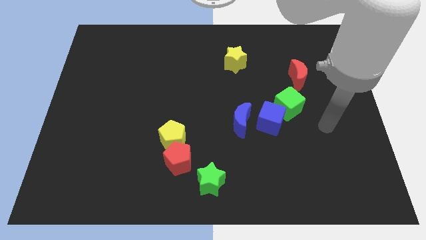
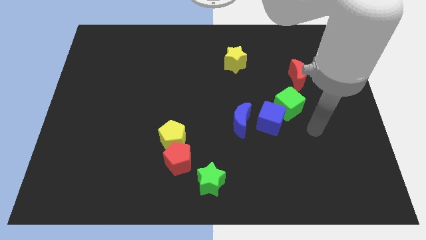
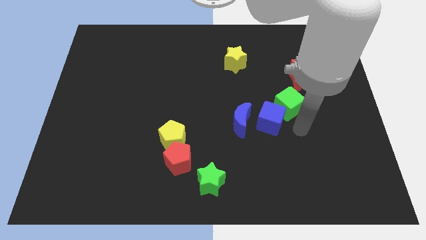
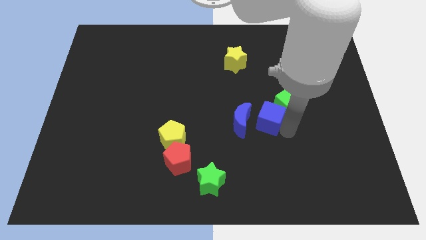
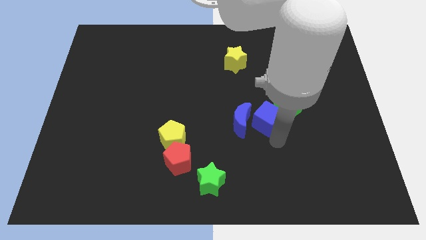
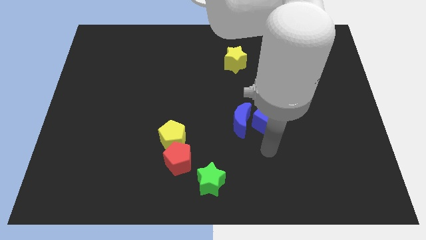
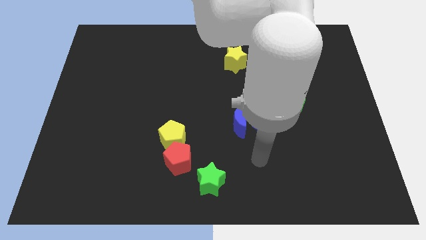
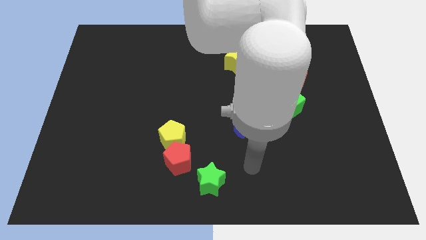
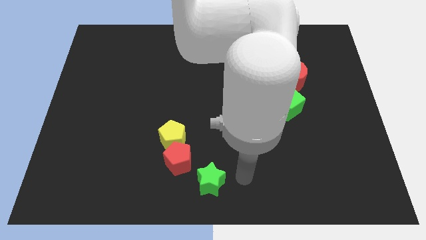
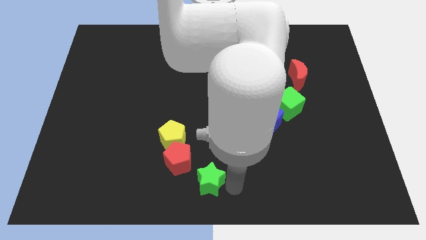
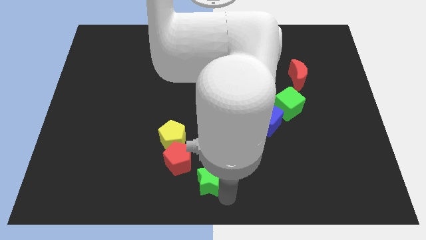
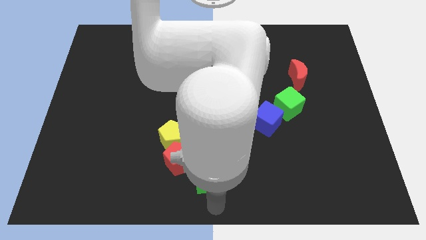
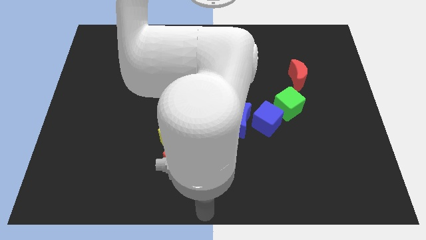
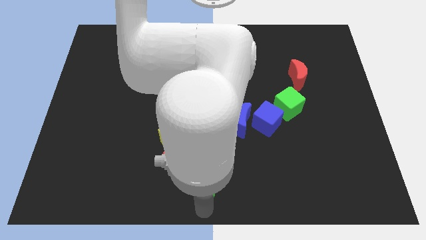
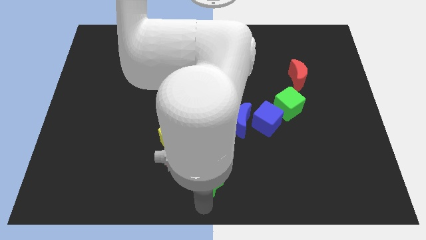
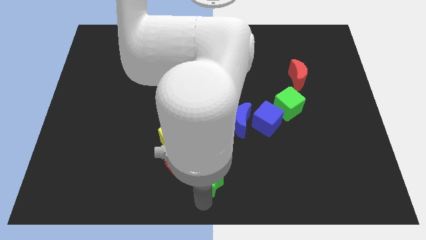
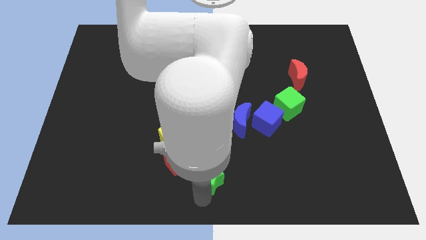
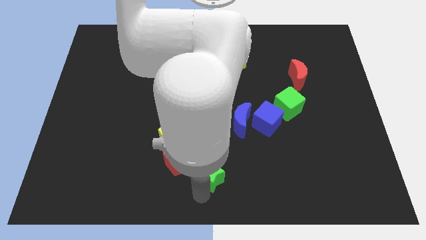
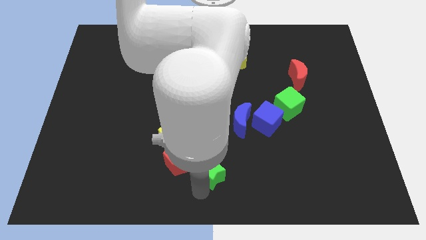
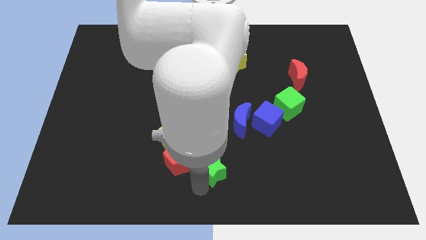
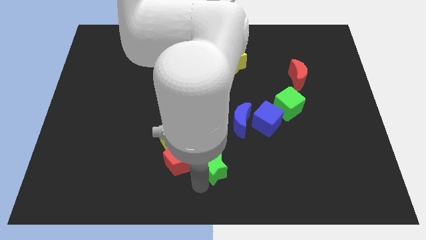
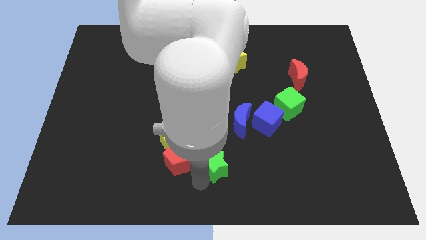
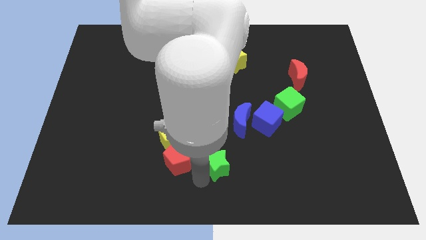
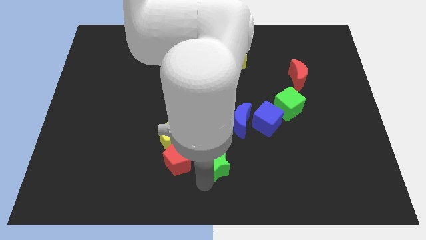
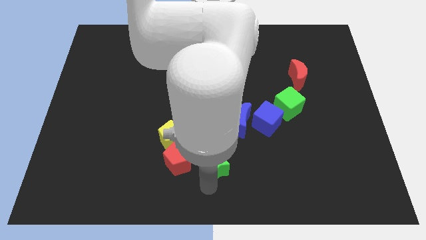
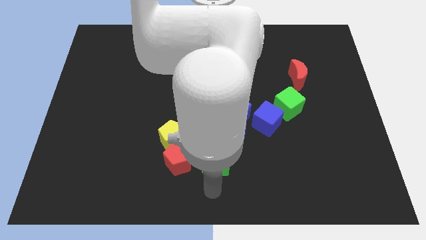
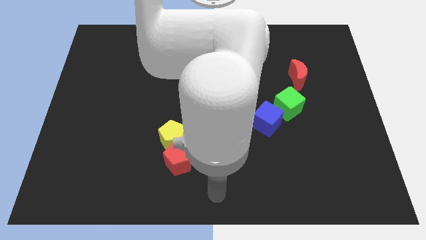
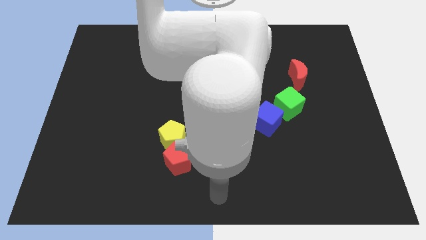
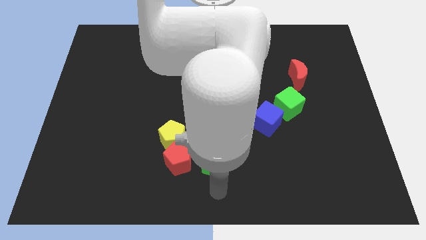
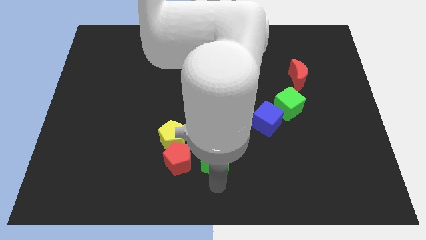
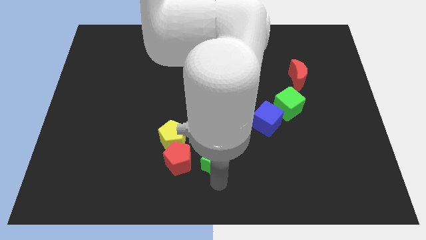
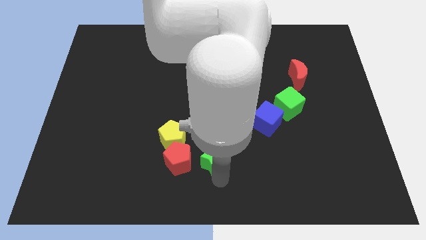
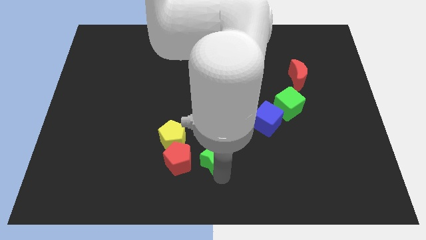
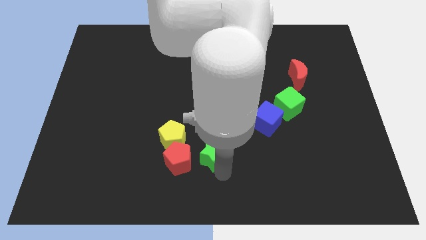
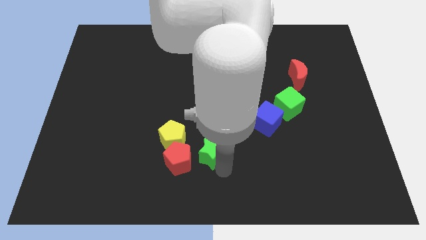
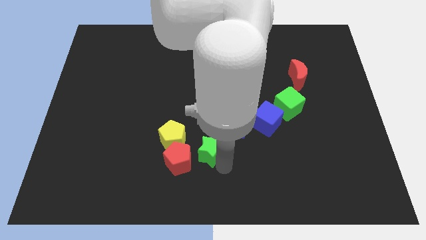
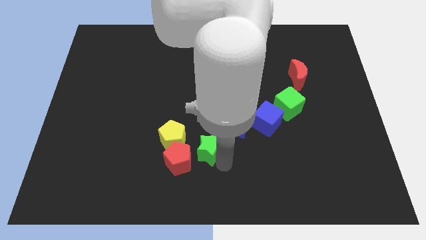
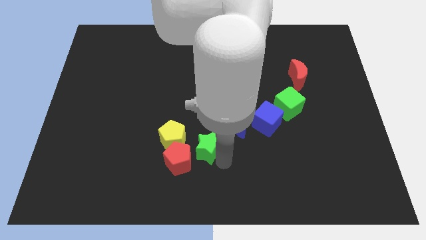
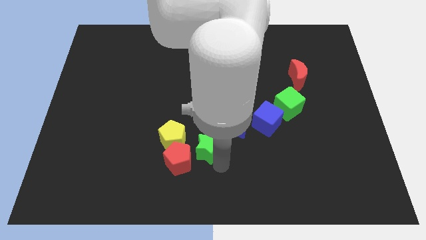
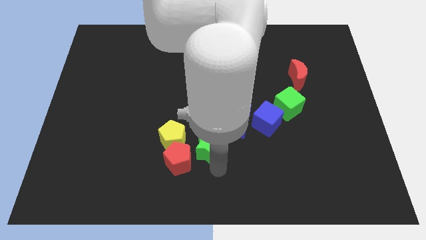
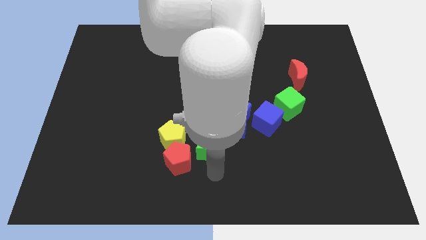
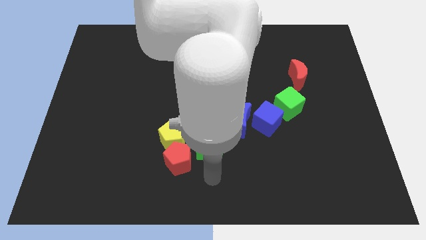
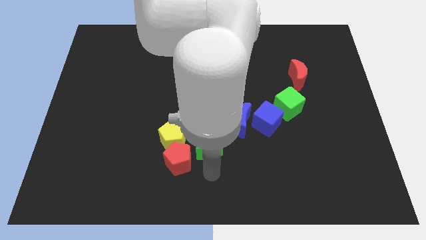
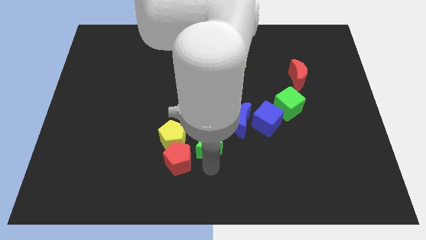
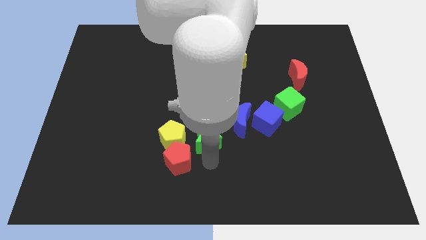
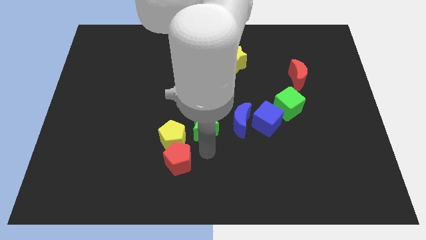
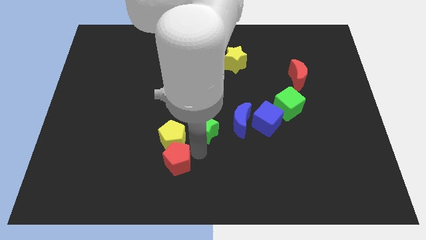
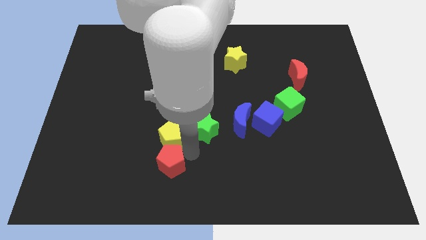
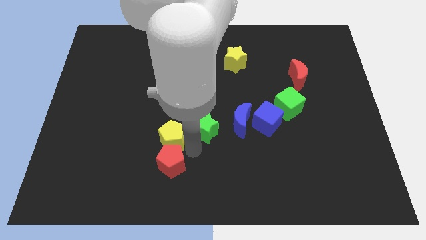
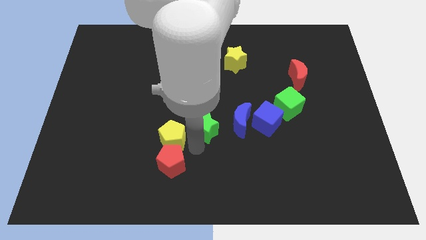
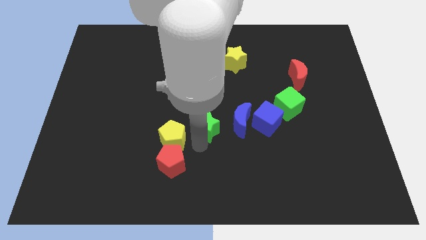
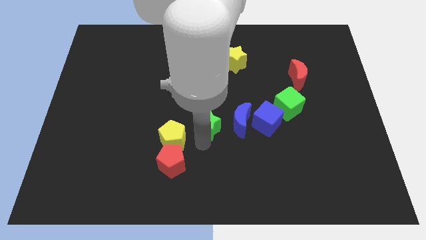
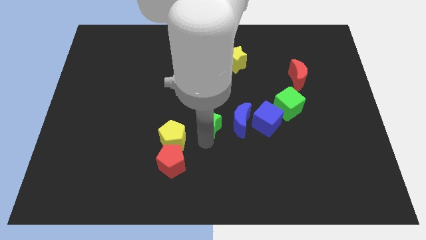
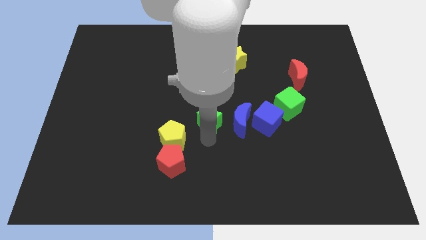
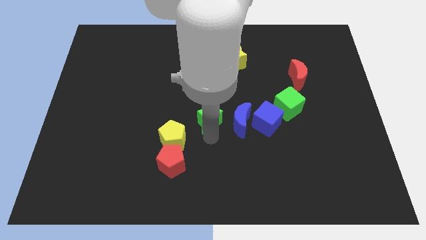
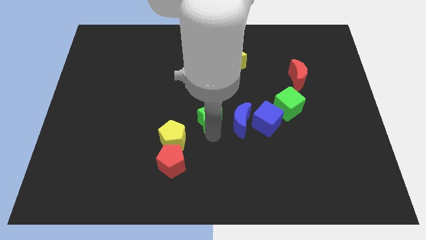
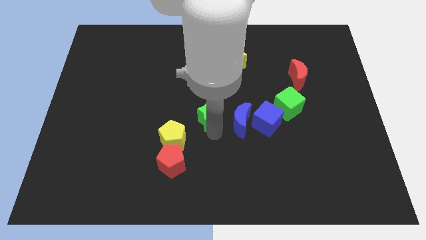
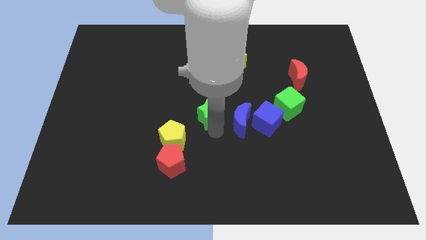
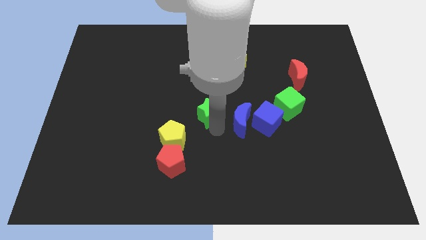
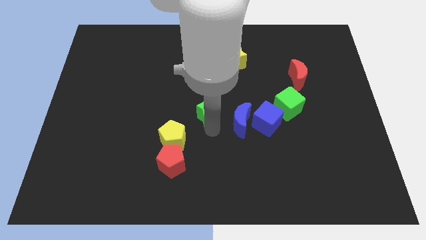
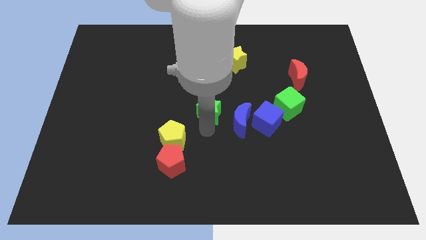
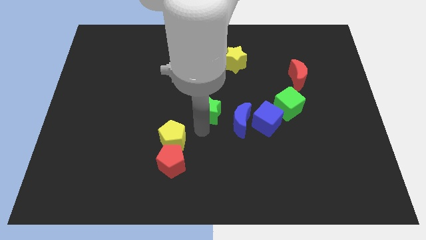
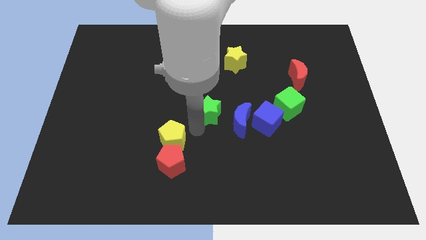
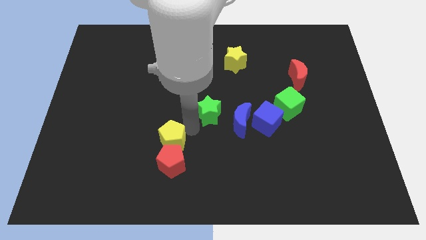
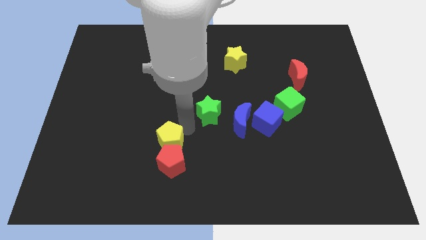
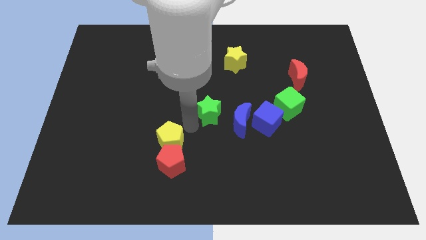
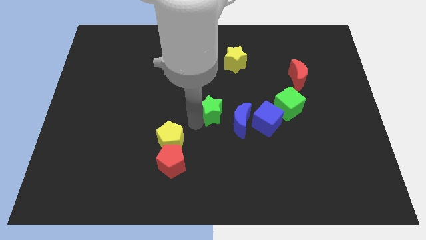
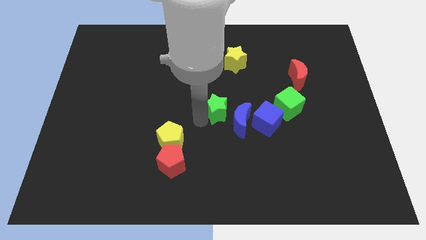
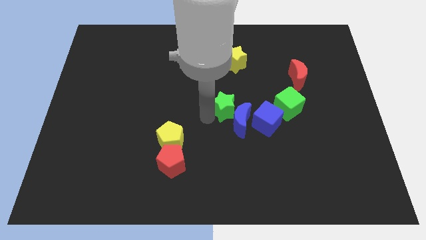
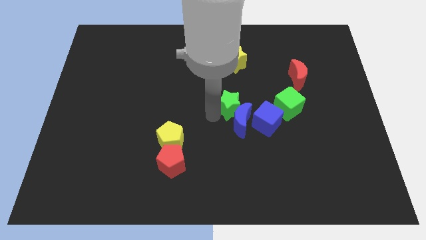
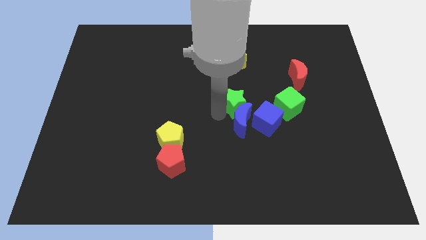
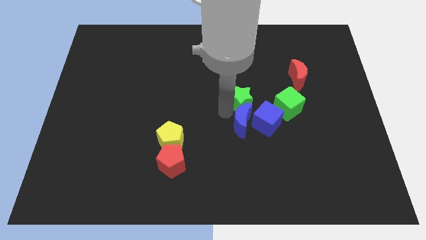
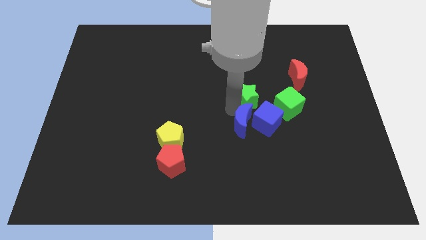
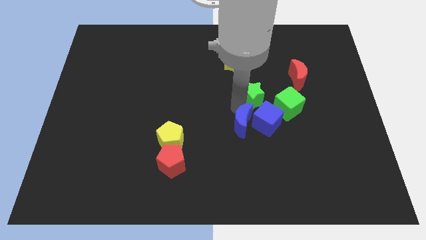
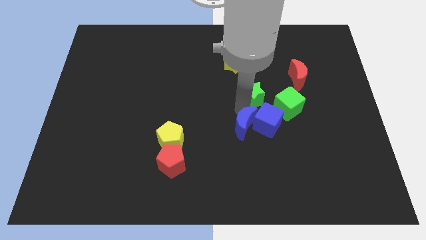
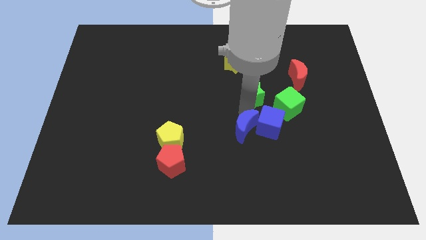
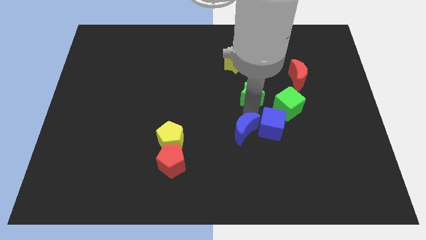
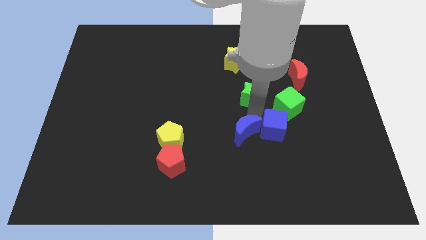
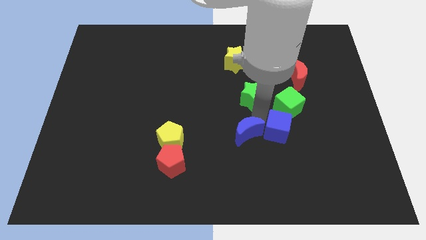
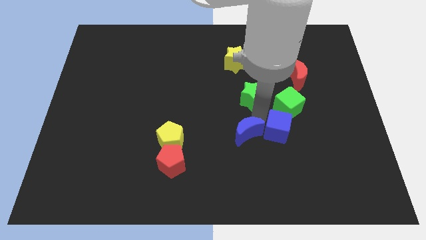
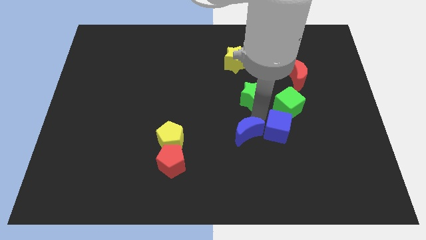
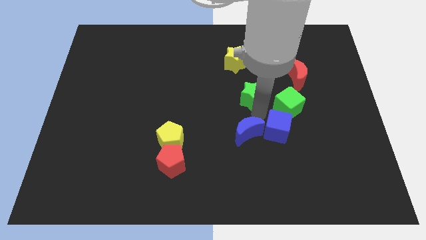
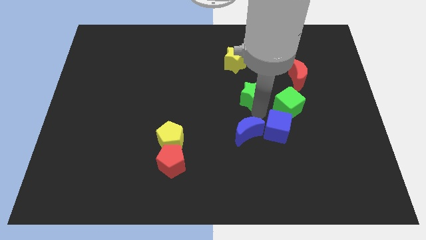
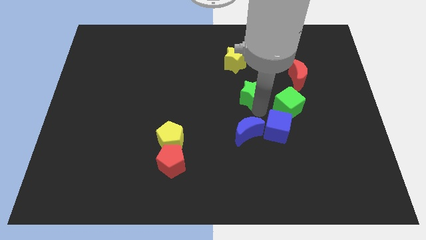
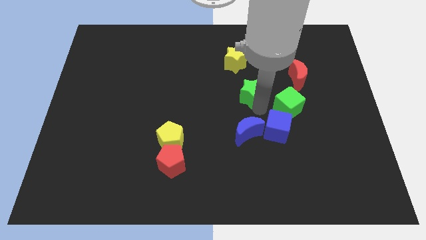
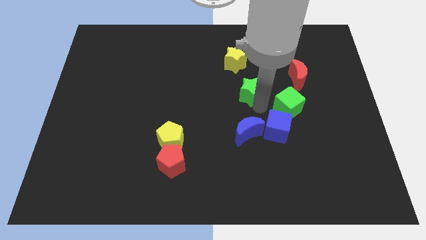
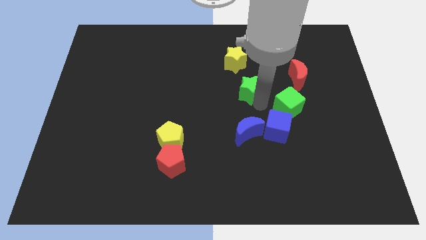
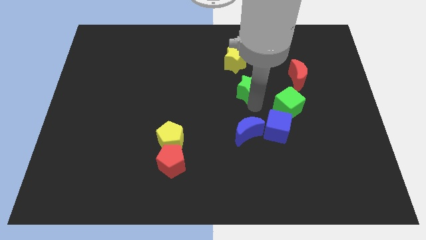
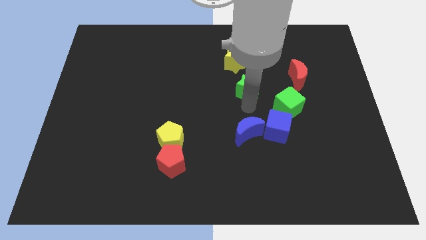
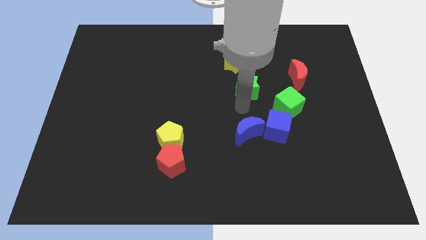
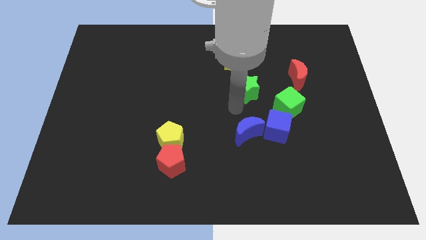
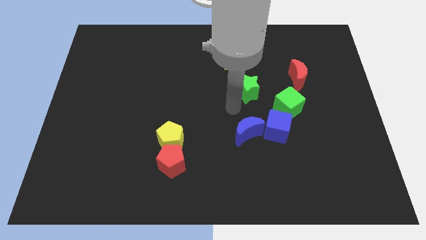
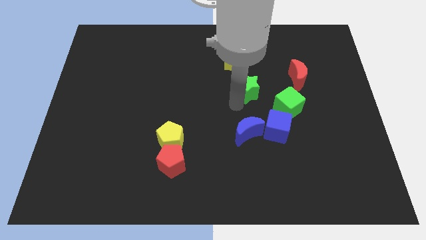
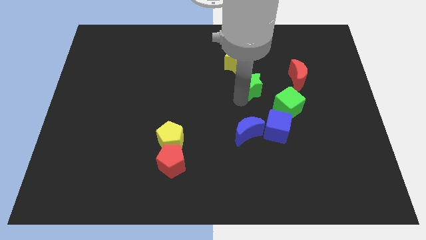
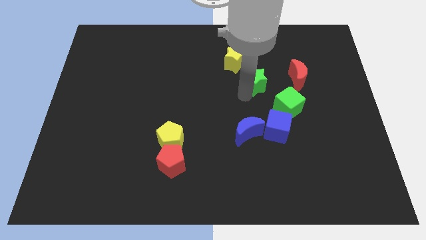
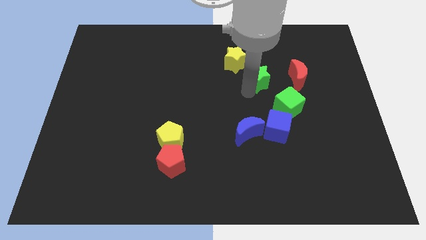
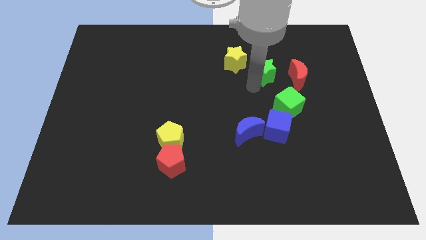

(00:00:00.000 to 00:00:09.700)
put the green star to the top left of the red moon
